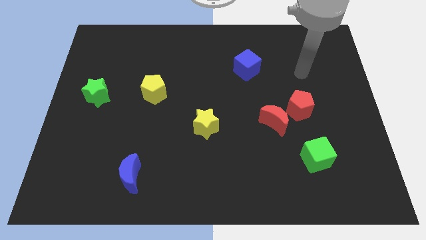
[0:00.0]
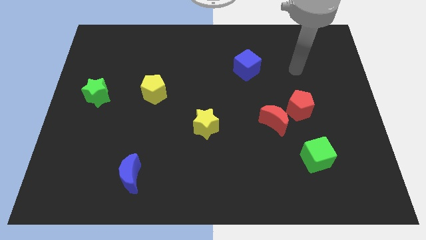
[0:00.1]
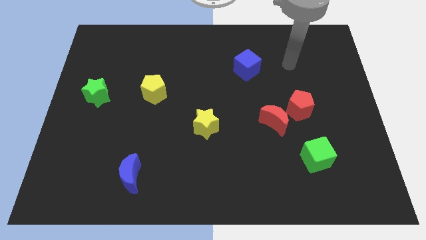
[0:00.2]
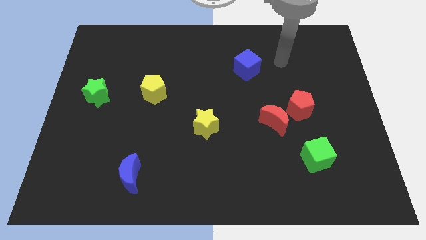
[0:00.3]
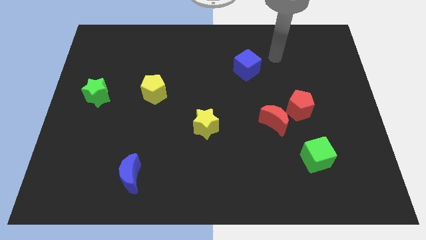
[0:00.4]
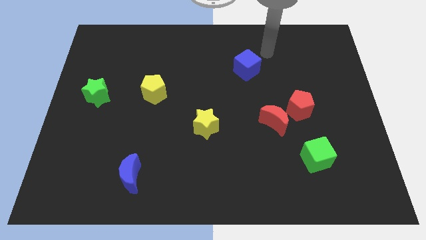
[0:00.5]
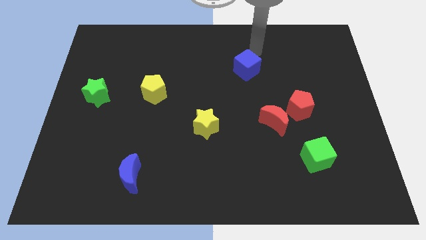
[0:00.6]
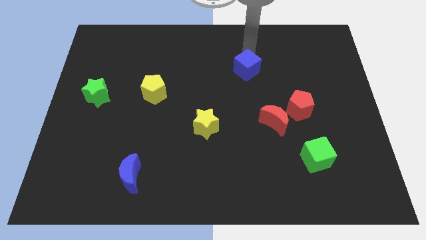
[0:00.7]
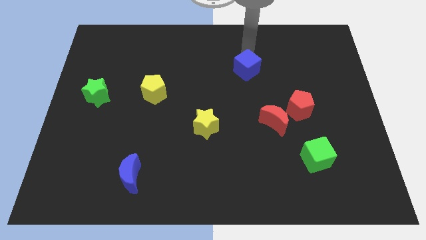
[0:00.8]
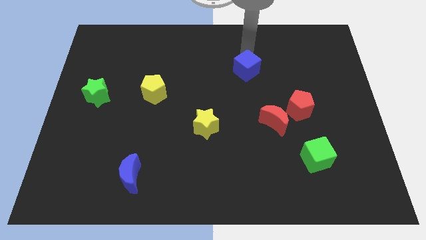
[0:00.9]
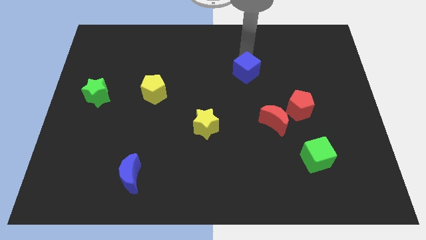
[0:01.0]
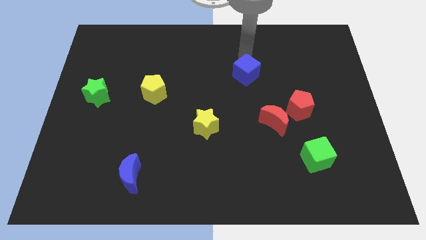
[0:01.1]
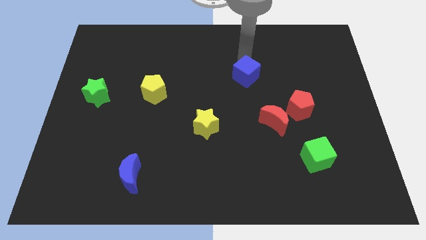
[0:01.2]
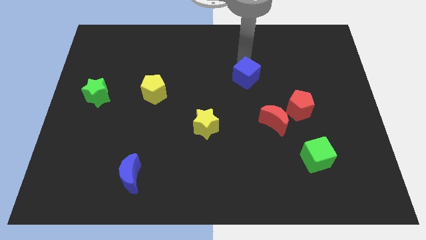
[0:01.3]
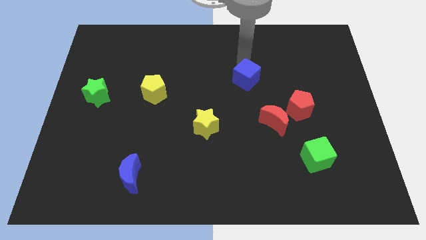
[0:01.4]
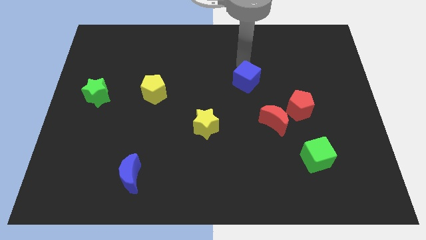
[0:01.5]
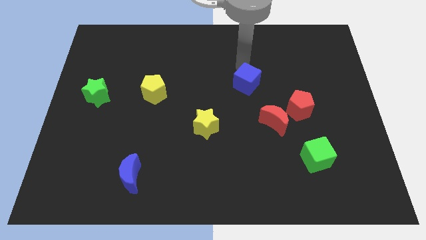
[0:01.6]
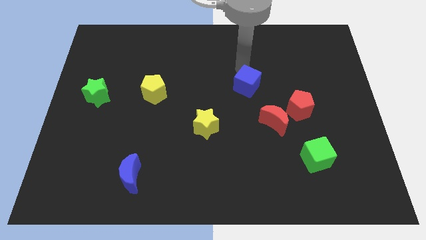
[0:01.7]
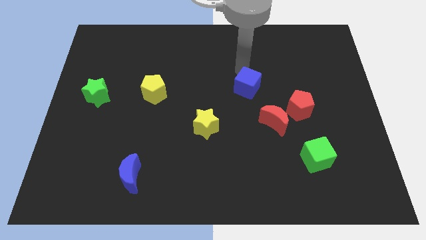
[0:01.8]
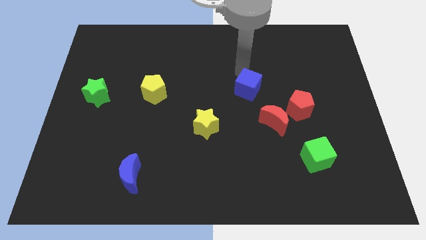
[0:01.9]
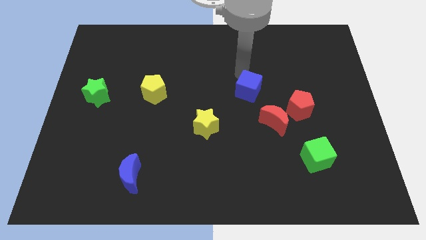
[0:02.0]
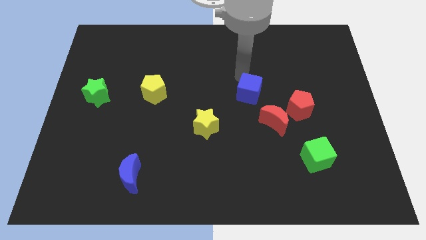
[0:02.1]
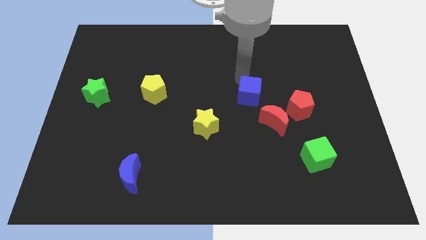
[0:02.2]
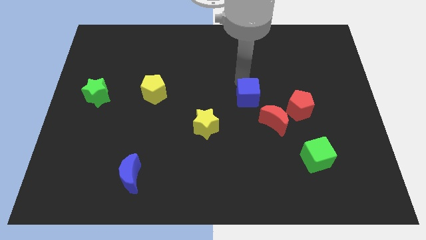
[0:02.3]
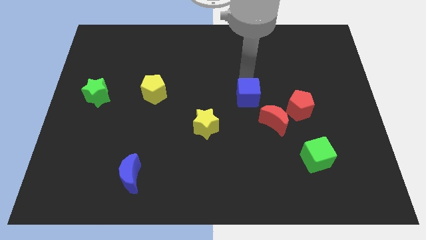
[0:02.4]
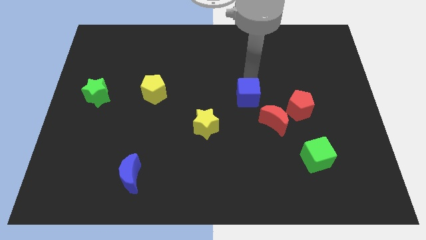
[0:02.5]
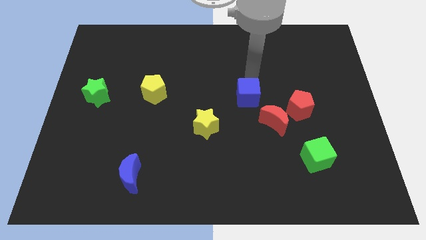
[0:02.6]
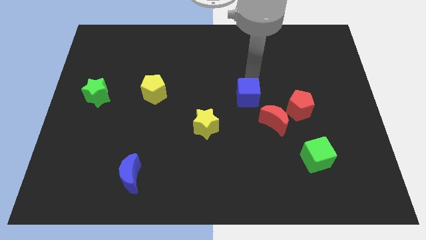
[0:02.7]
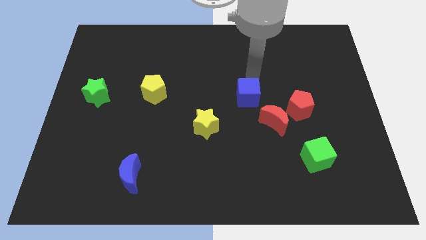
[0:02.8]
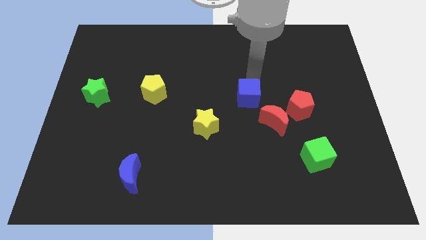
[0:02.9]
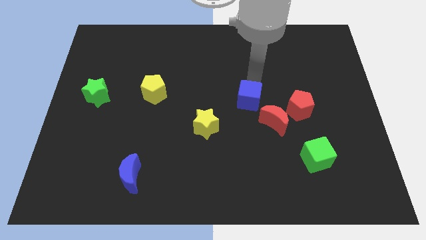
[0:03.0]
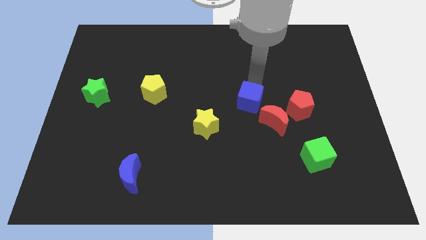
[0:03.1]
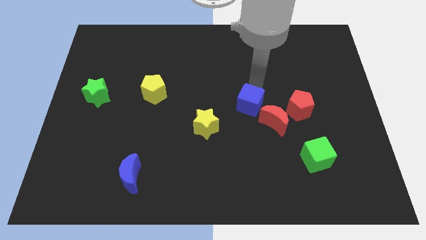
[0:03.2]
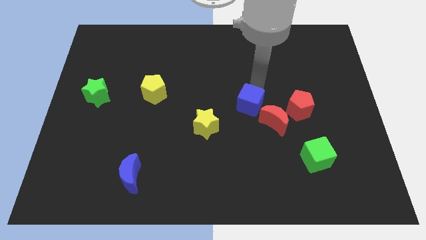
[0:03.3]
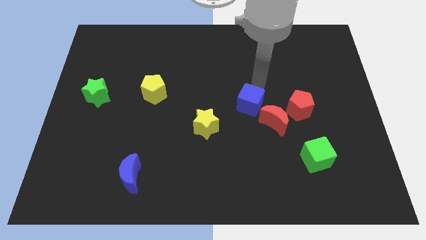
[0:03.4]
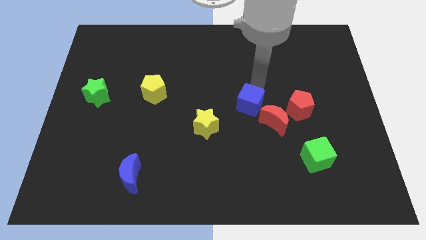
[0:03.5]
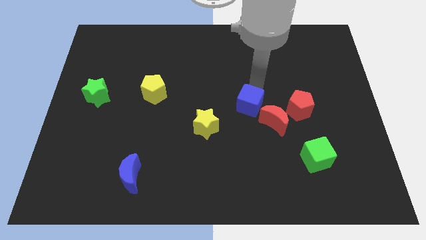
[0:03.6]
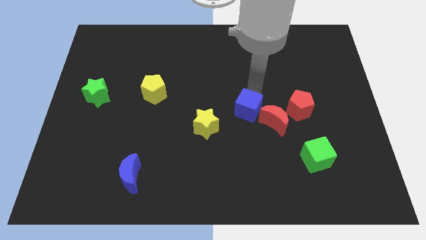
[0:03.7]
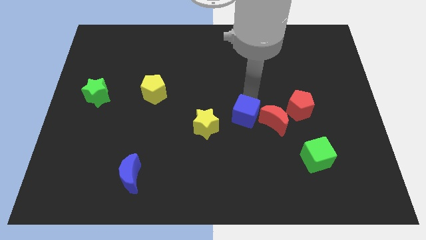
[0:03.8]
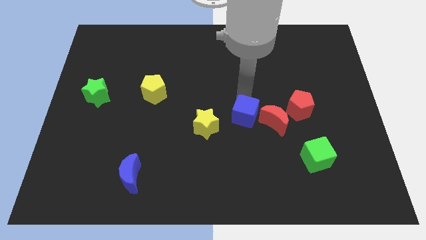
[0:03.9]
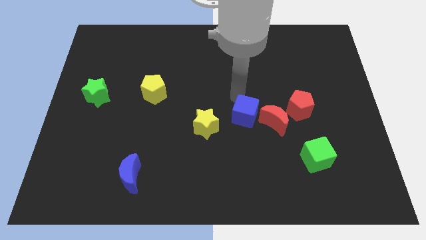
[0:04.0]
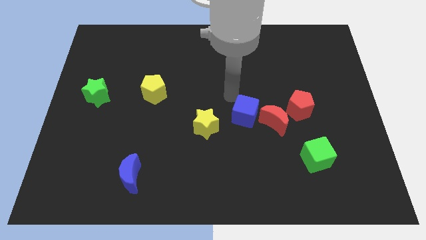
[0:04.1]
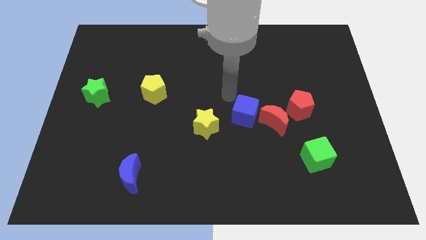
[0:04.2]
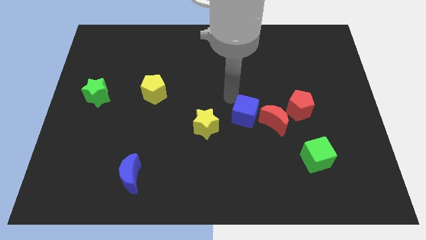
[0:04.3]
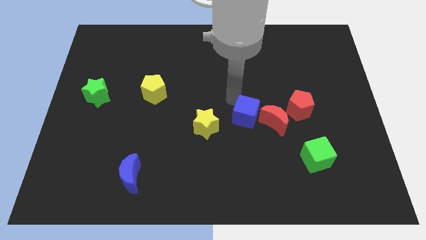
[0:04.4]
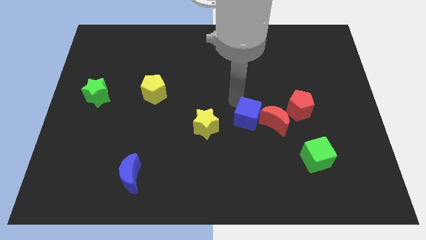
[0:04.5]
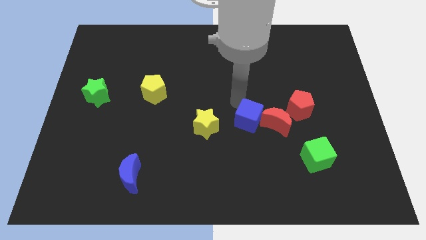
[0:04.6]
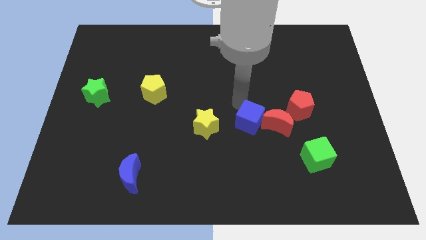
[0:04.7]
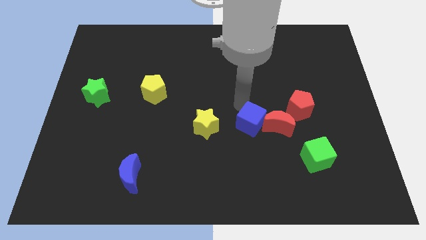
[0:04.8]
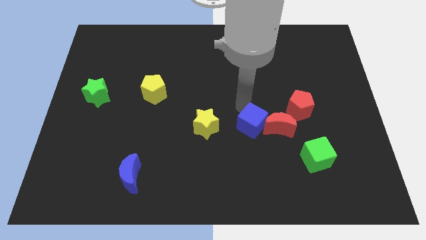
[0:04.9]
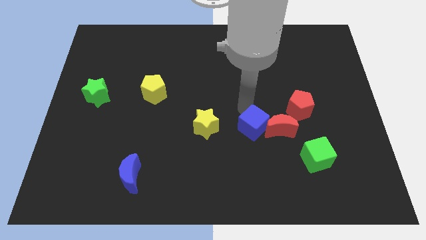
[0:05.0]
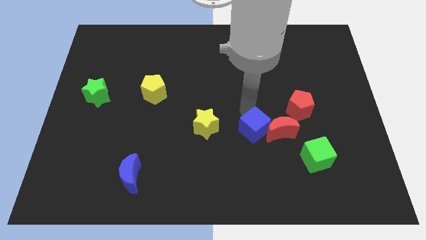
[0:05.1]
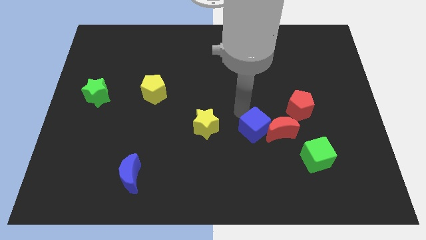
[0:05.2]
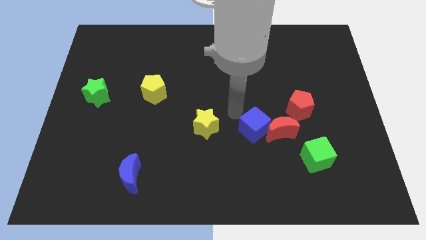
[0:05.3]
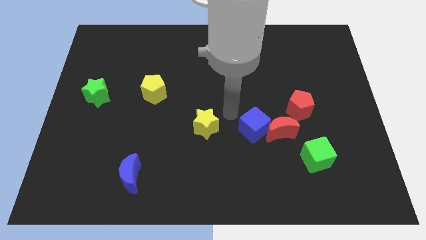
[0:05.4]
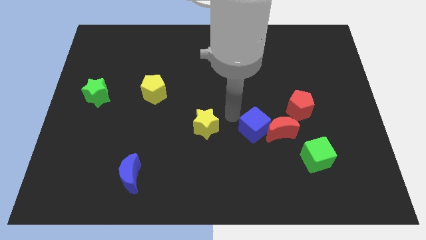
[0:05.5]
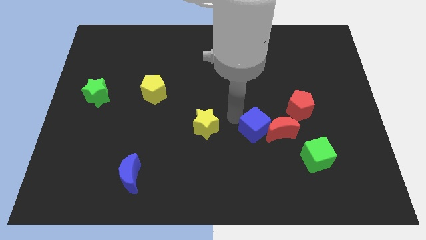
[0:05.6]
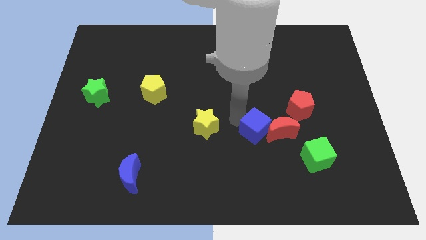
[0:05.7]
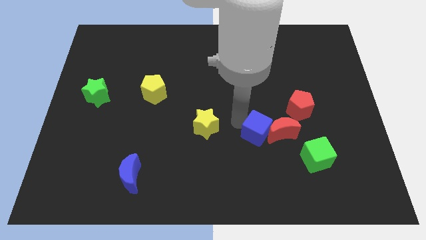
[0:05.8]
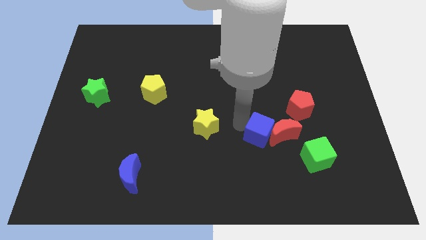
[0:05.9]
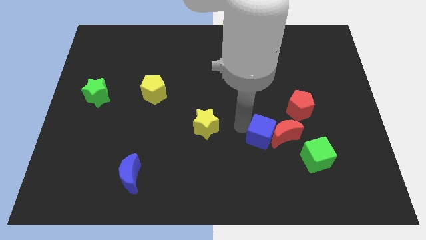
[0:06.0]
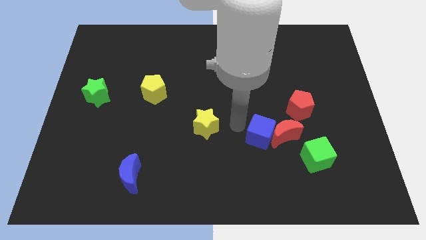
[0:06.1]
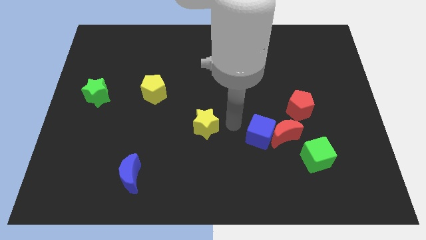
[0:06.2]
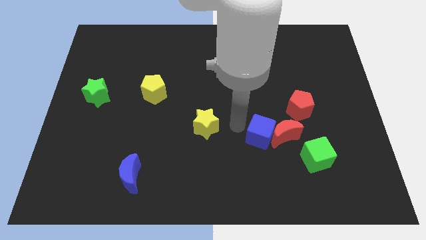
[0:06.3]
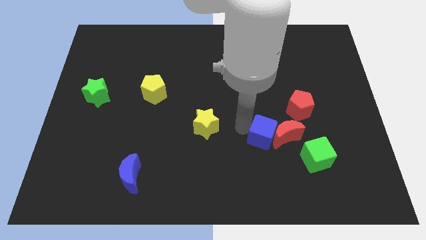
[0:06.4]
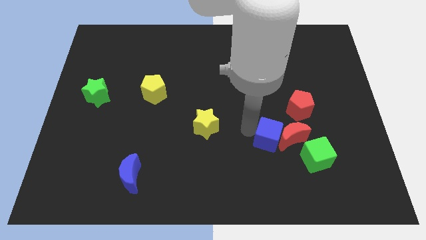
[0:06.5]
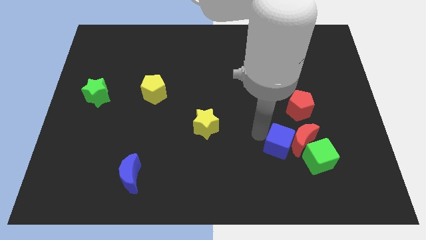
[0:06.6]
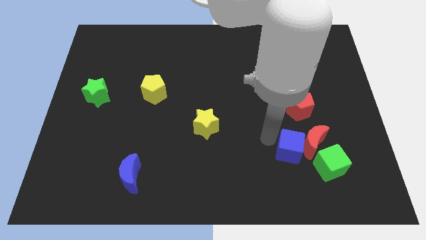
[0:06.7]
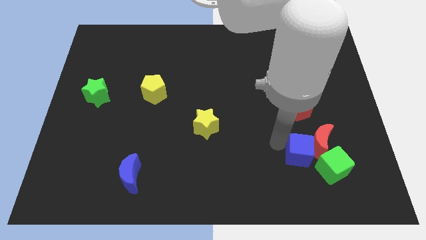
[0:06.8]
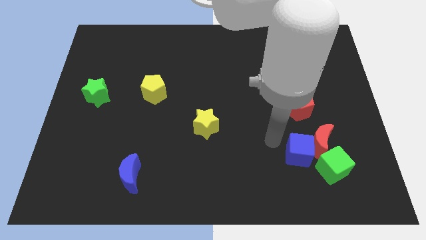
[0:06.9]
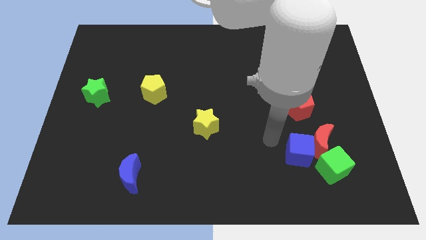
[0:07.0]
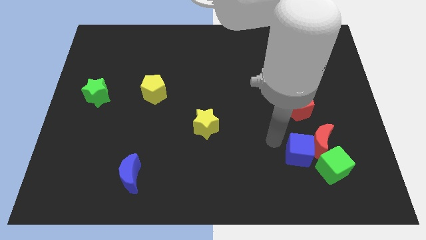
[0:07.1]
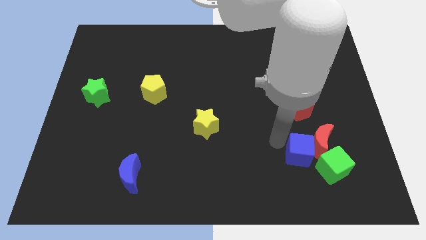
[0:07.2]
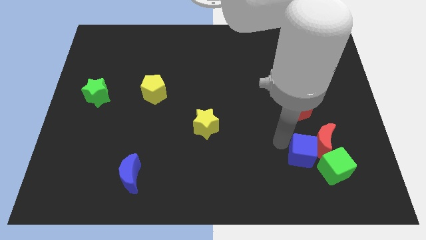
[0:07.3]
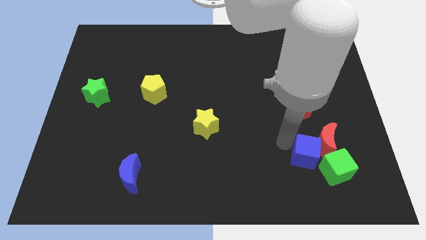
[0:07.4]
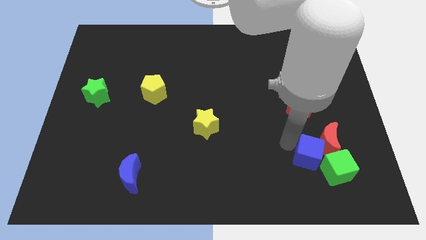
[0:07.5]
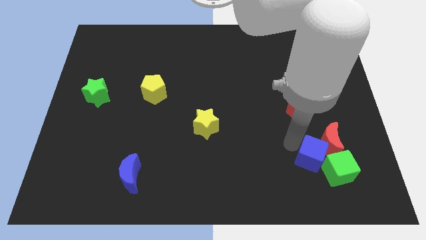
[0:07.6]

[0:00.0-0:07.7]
put the blue cube close to the green cube
